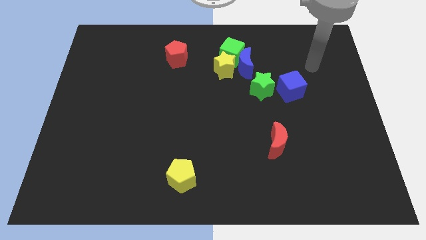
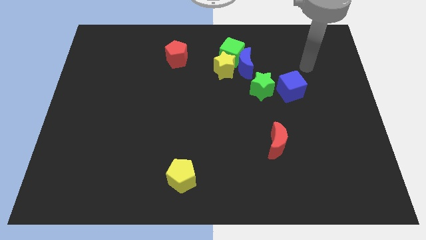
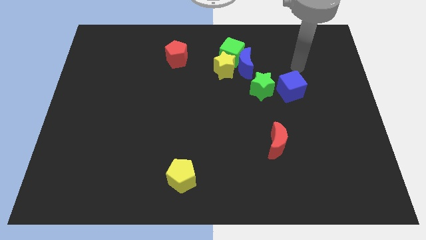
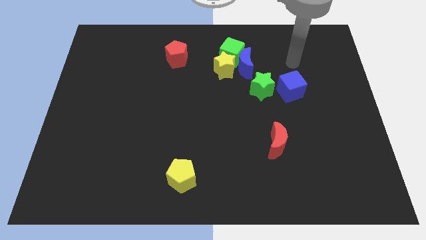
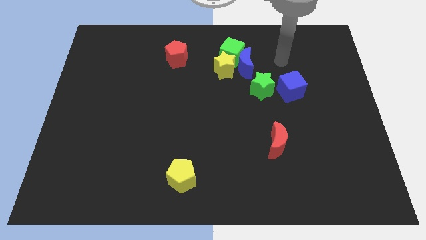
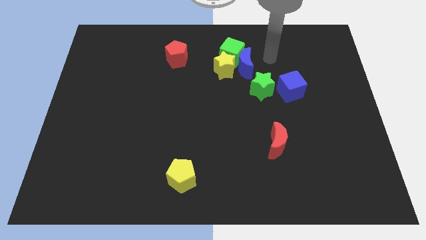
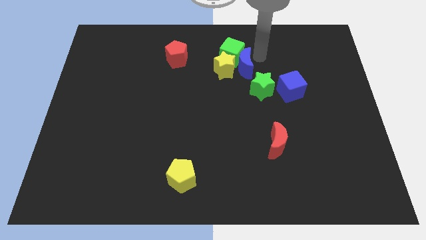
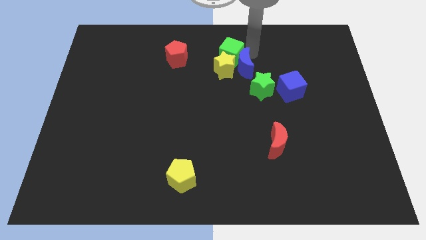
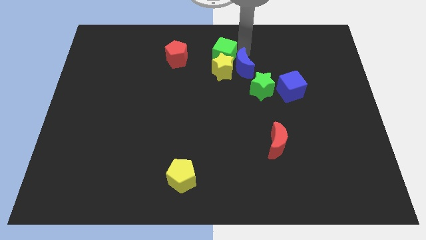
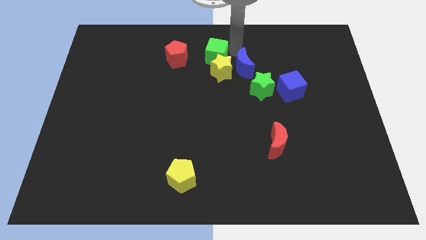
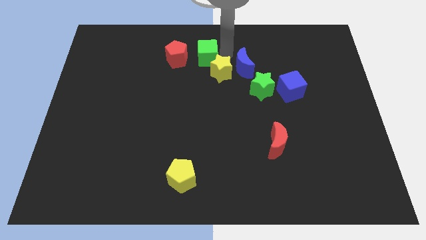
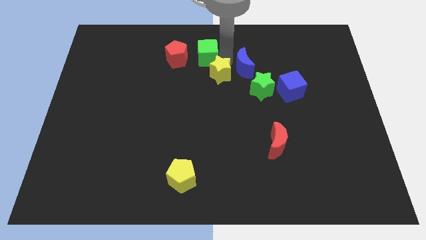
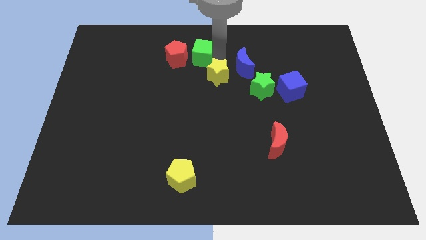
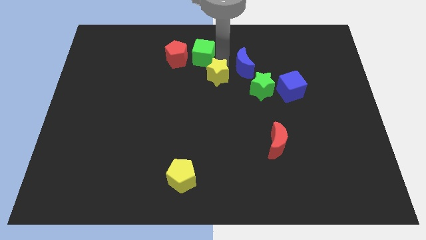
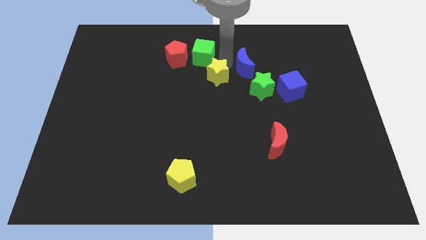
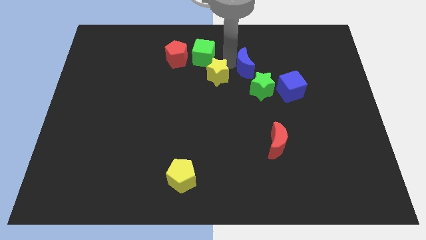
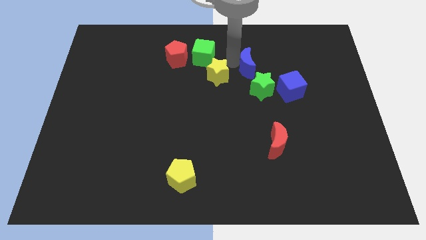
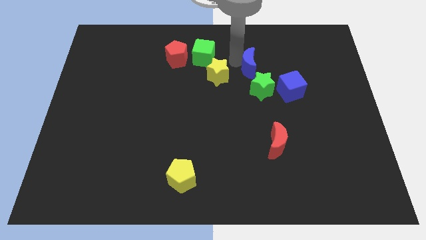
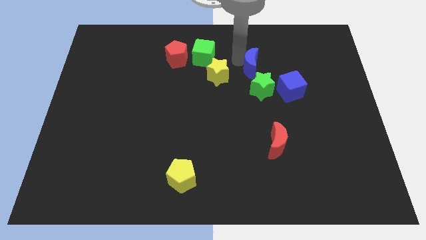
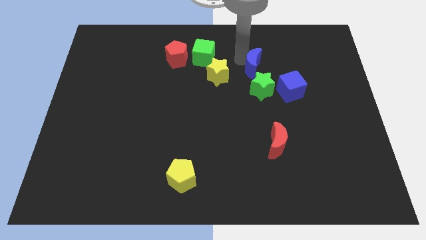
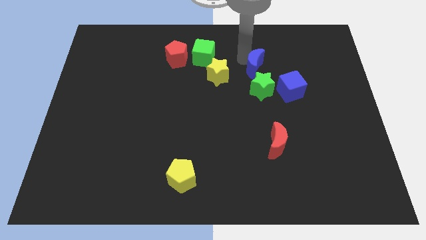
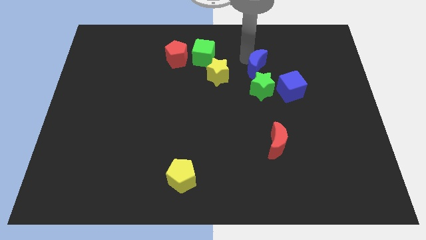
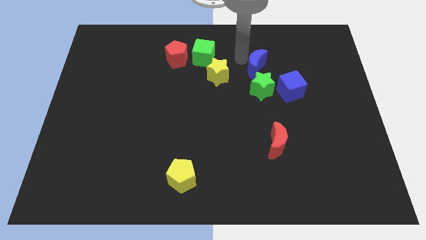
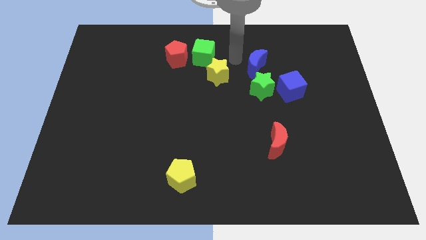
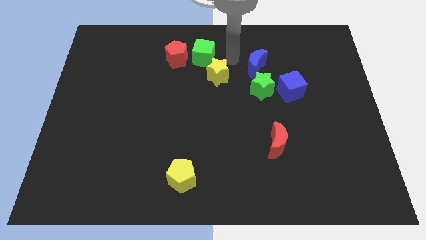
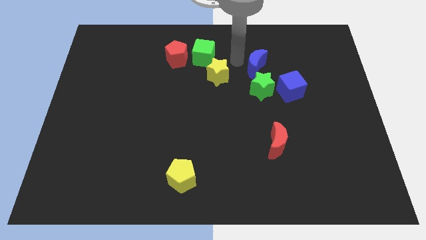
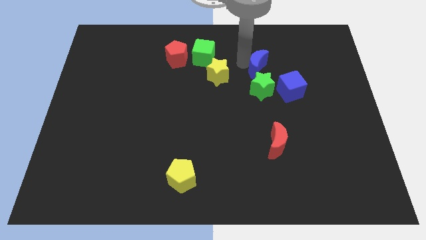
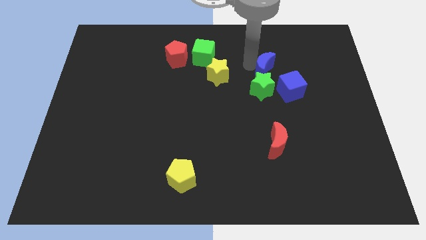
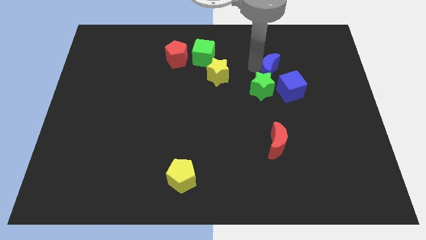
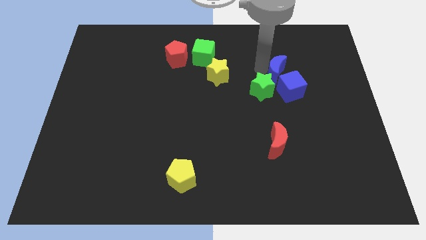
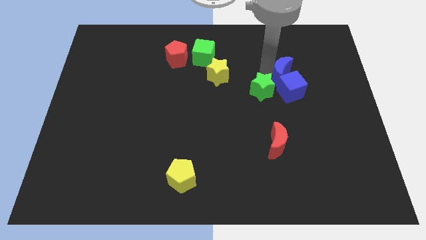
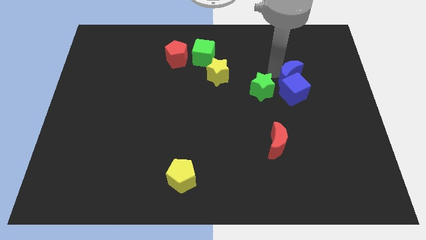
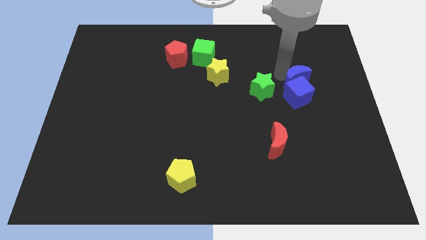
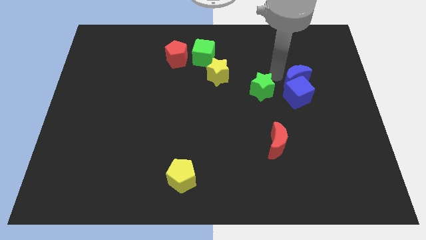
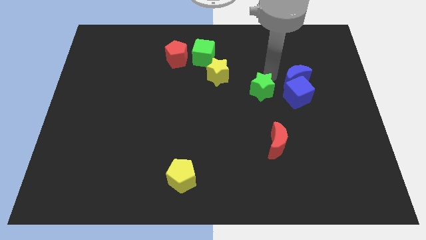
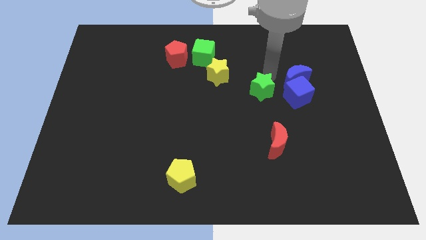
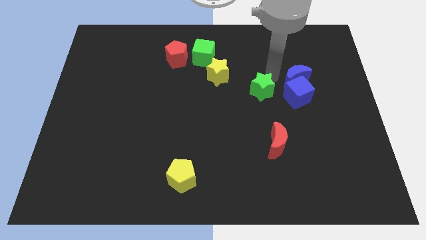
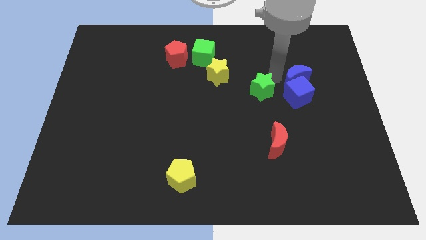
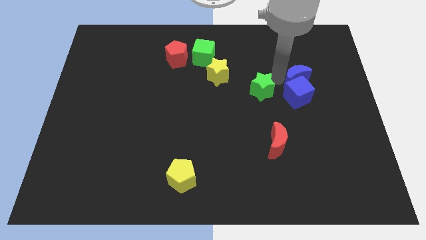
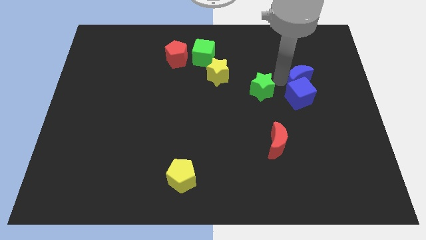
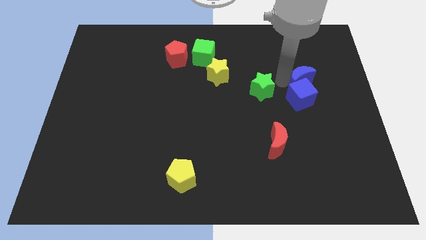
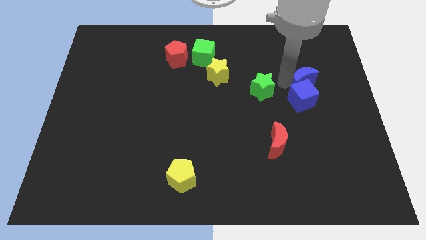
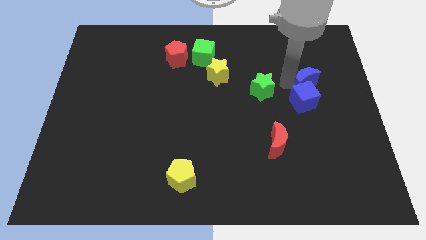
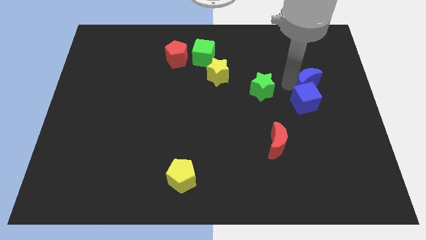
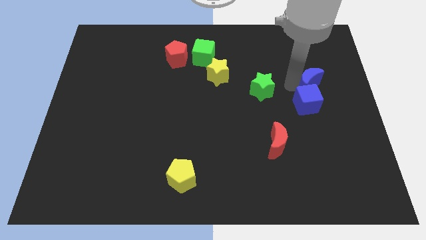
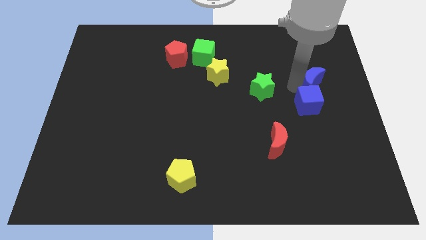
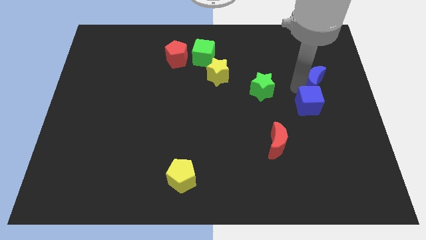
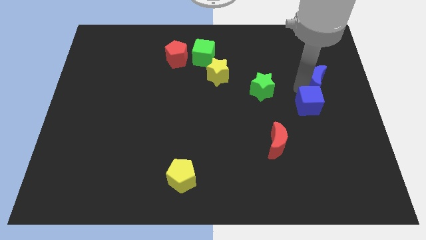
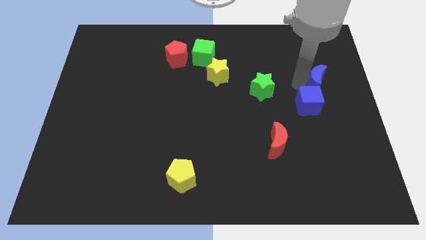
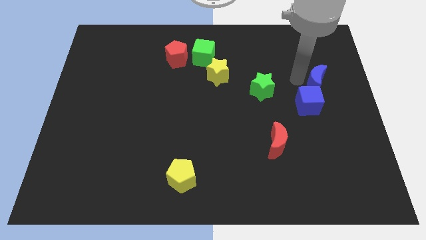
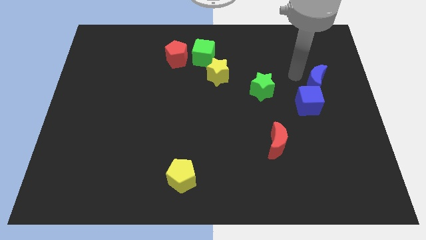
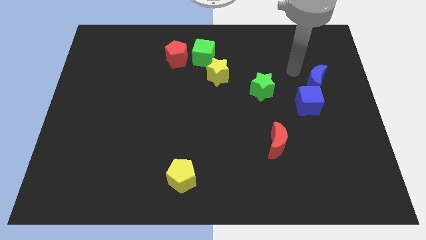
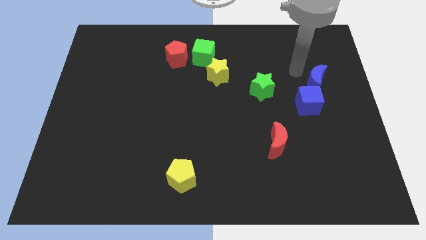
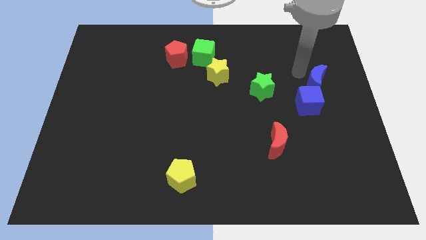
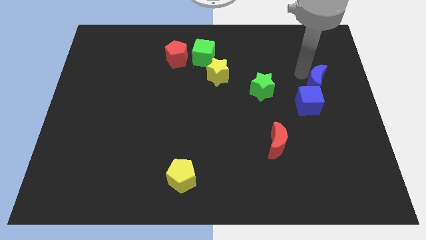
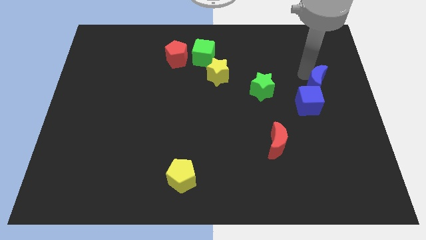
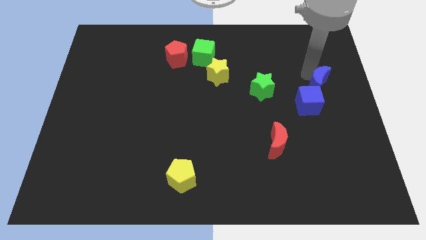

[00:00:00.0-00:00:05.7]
move the blue moon to the right side

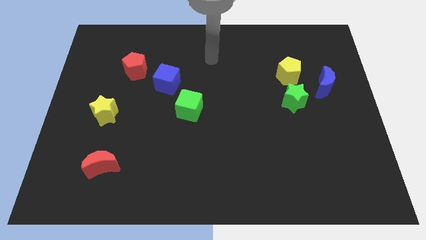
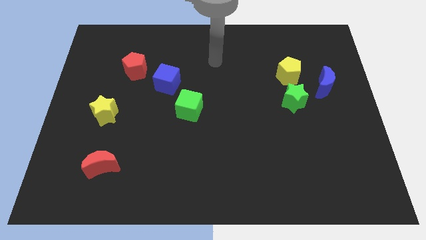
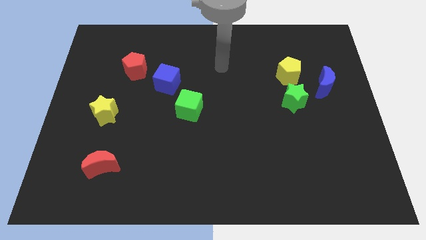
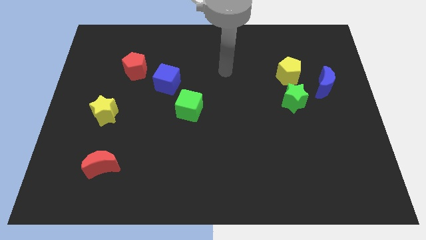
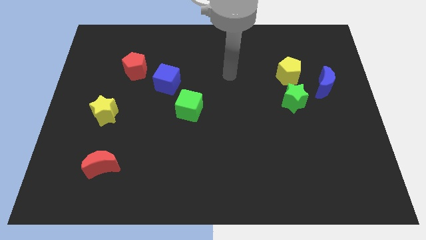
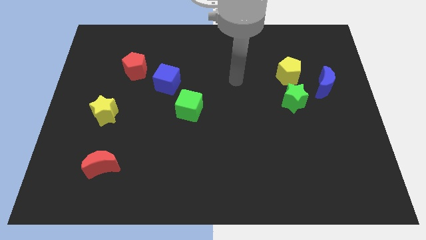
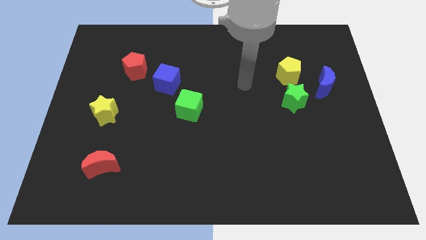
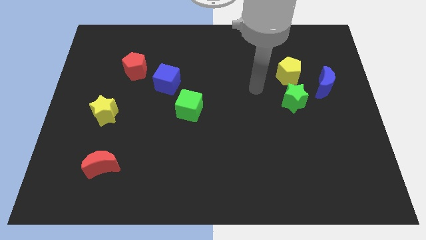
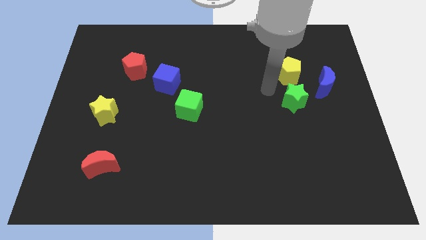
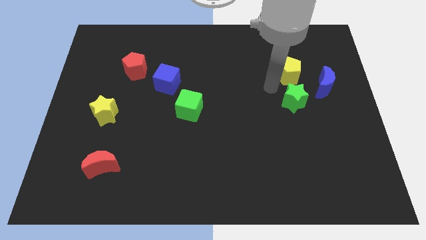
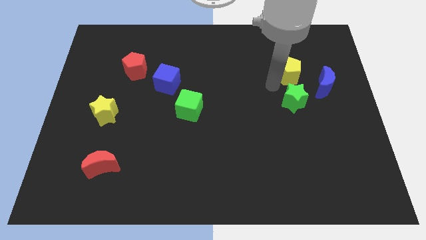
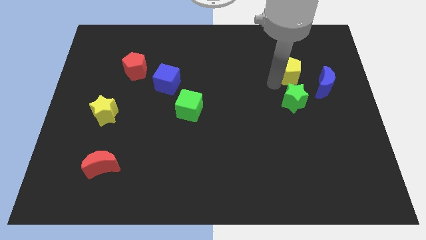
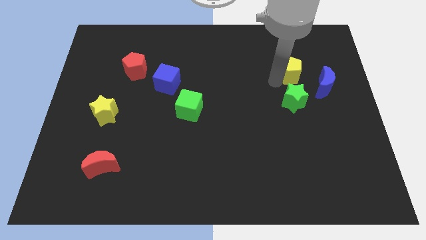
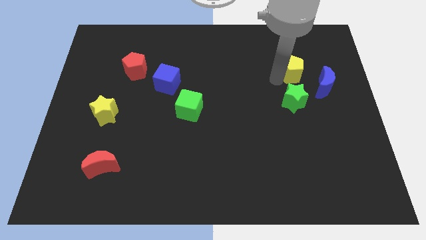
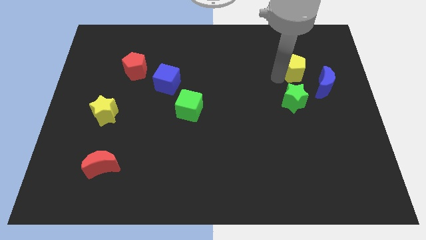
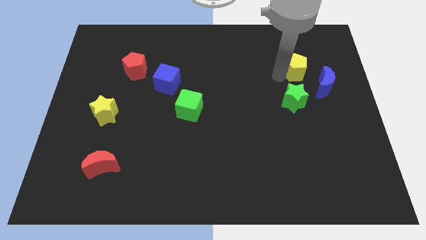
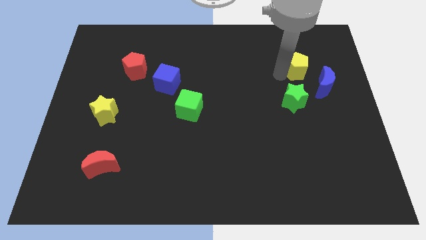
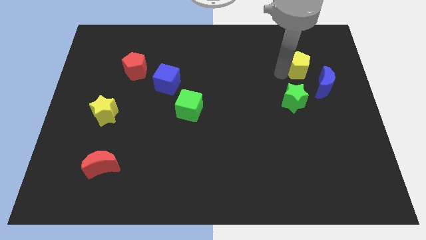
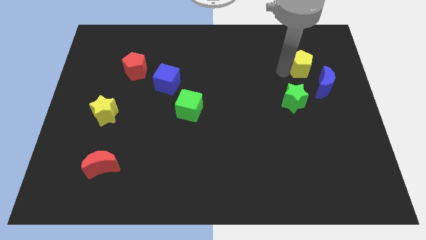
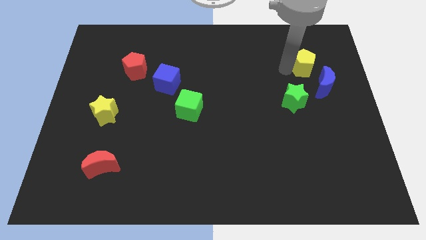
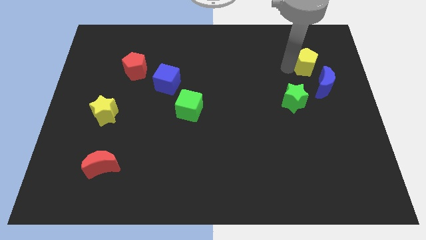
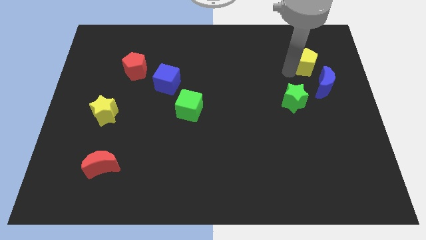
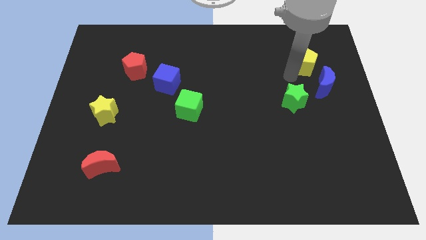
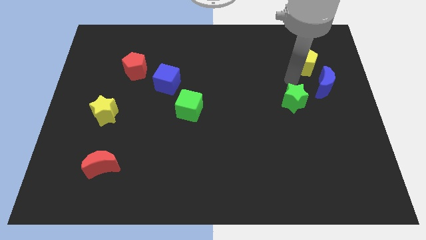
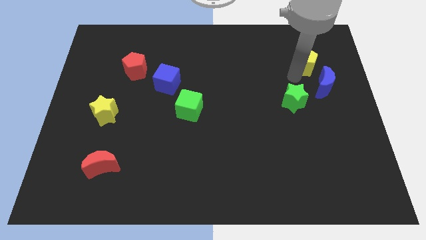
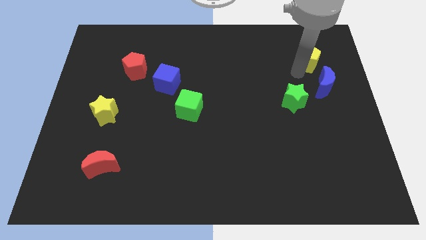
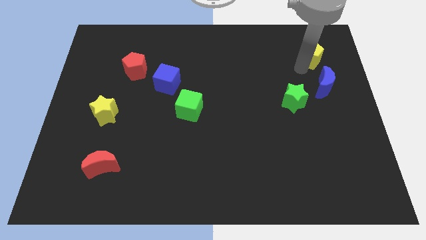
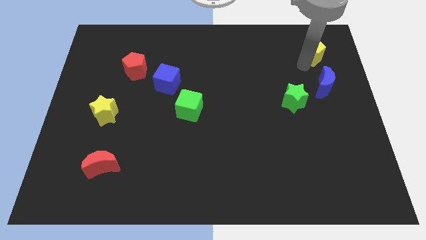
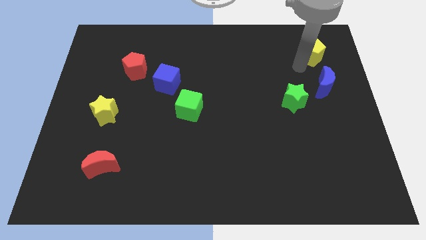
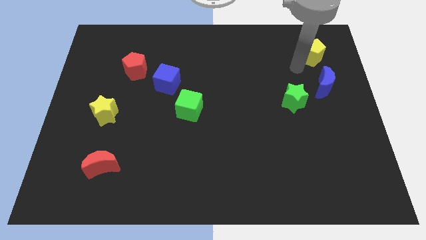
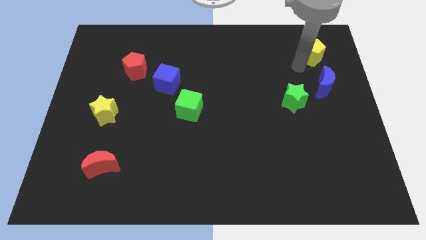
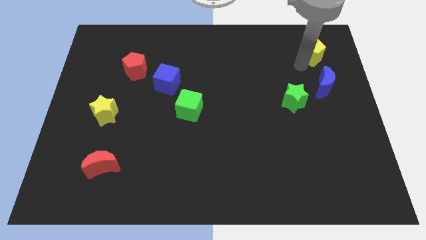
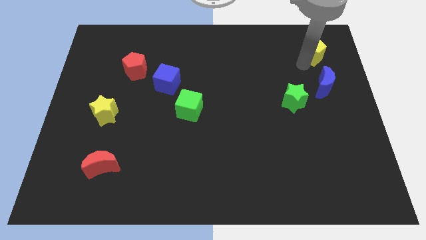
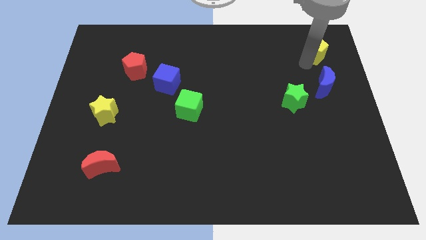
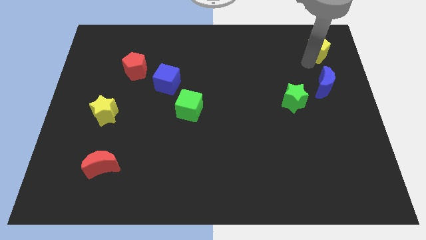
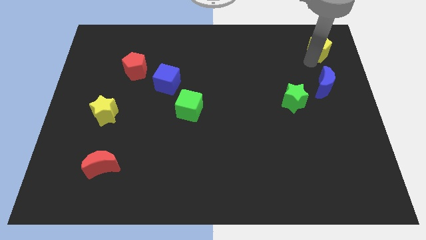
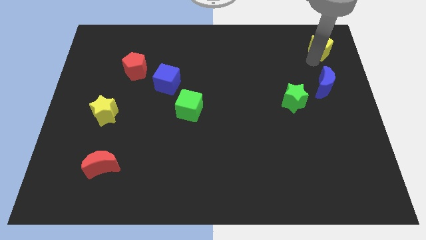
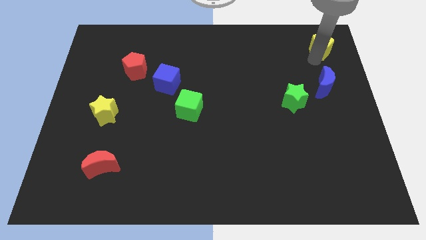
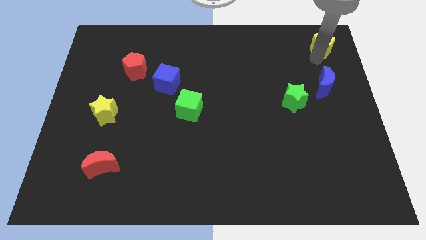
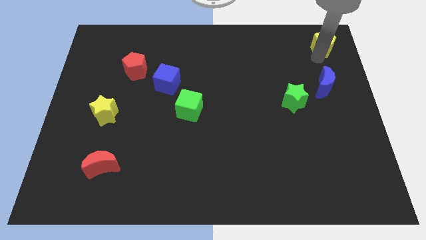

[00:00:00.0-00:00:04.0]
put the yellow pentagon to the top right corner
